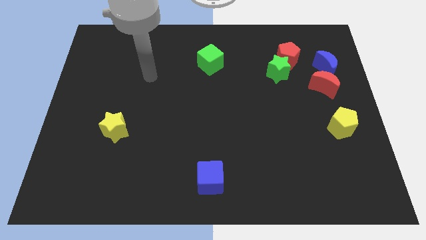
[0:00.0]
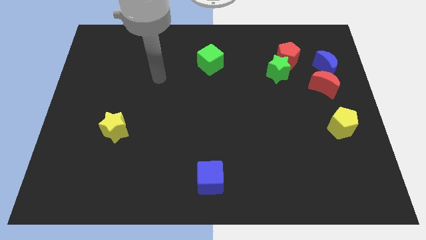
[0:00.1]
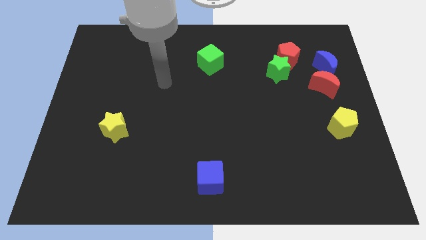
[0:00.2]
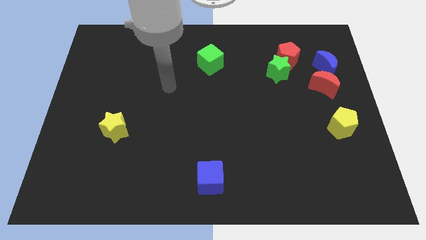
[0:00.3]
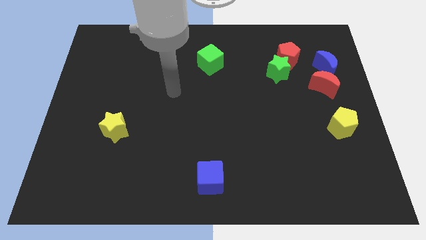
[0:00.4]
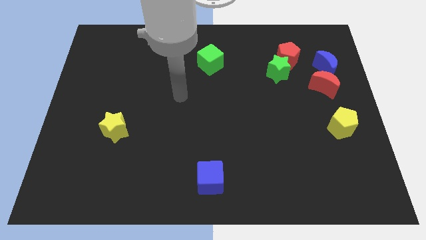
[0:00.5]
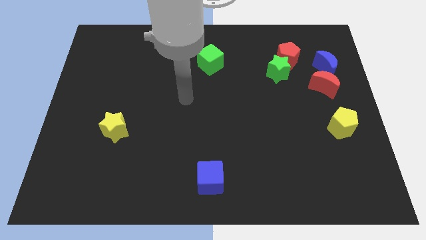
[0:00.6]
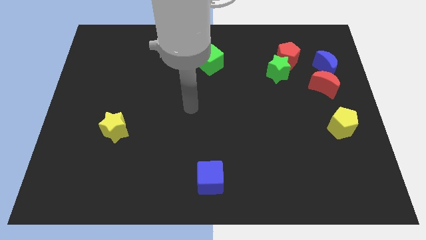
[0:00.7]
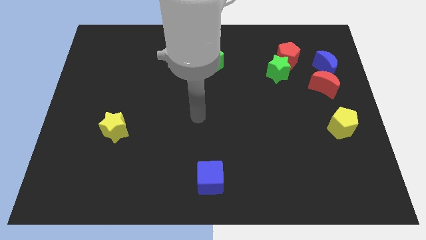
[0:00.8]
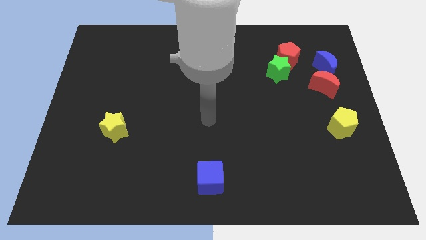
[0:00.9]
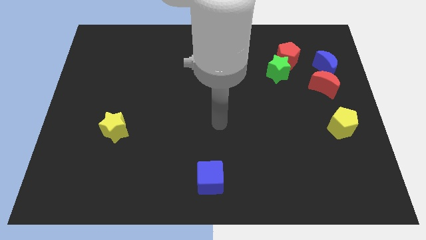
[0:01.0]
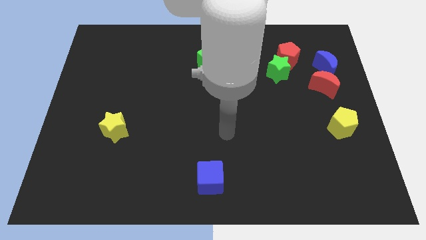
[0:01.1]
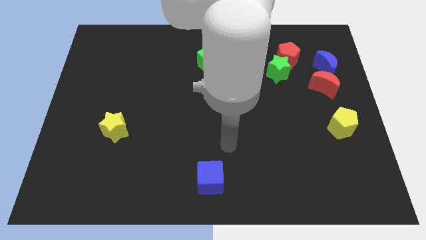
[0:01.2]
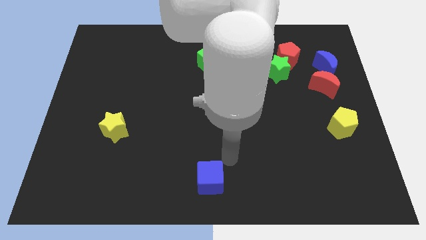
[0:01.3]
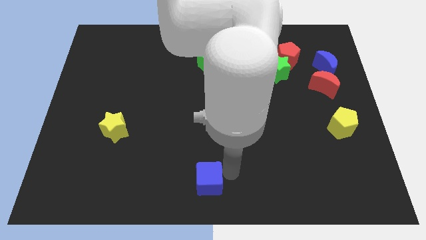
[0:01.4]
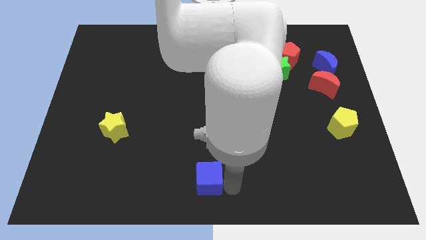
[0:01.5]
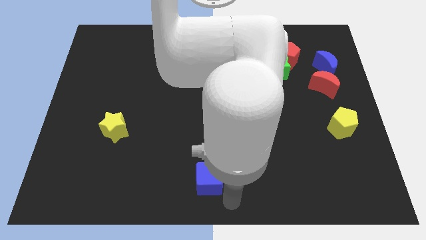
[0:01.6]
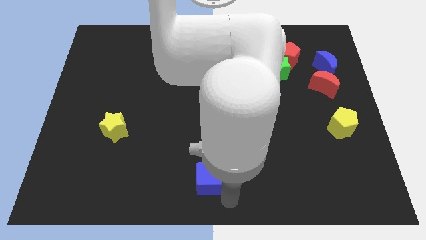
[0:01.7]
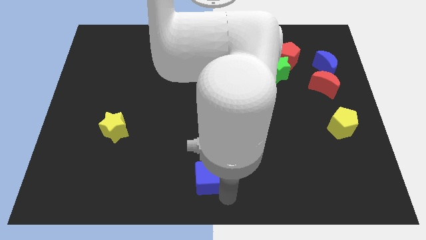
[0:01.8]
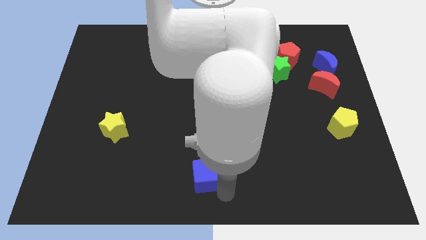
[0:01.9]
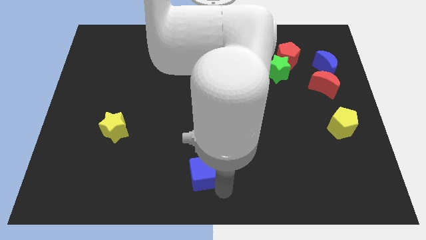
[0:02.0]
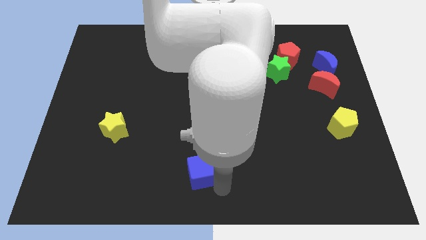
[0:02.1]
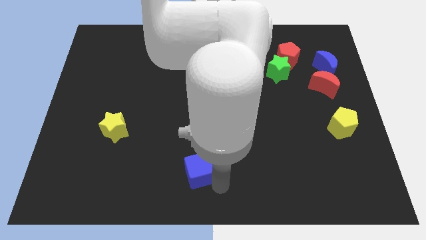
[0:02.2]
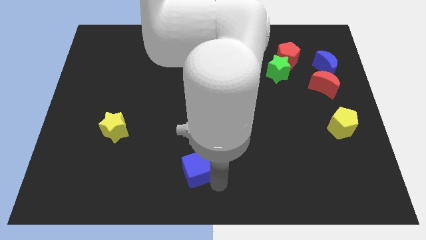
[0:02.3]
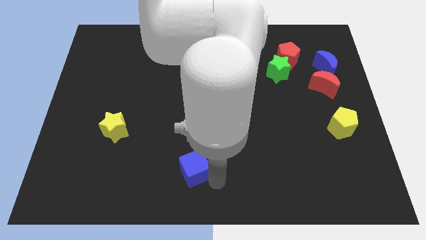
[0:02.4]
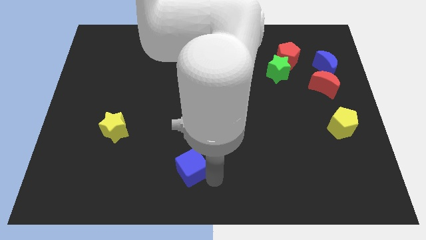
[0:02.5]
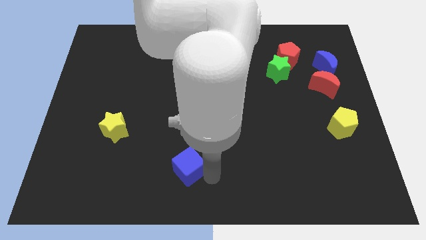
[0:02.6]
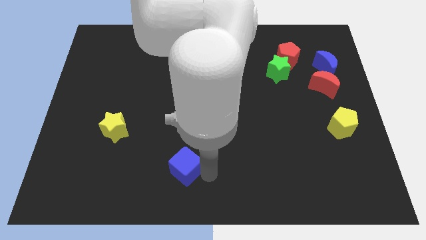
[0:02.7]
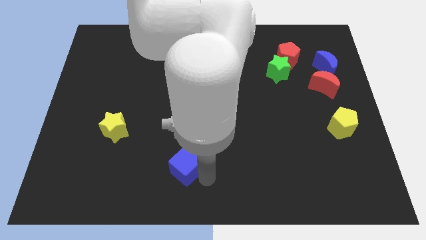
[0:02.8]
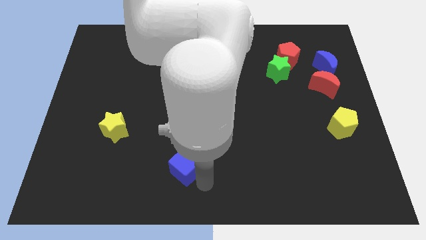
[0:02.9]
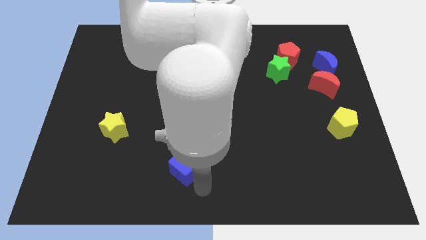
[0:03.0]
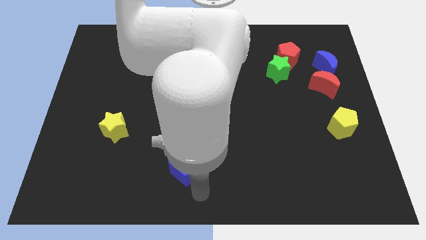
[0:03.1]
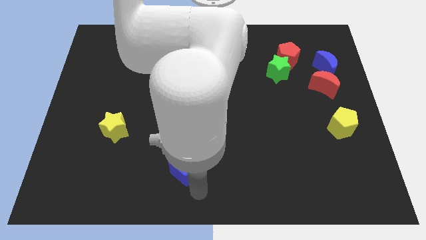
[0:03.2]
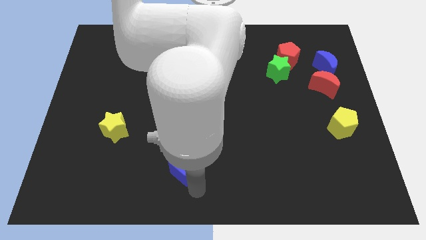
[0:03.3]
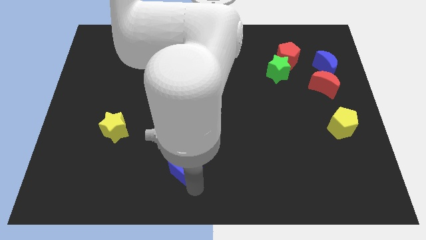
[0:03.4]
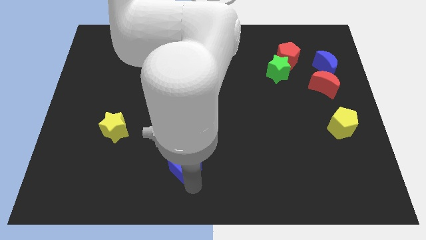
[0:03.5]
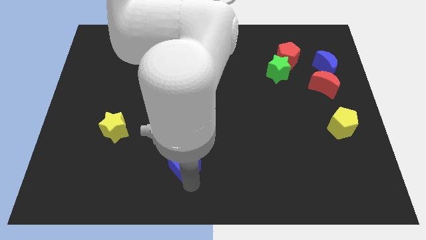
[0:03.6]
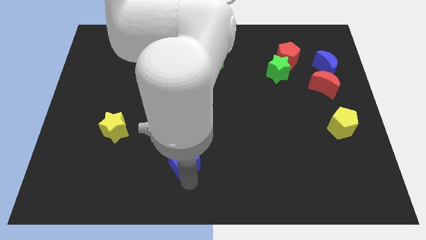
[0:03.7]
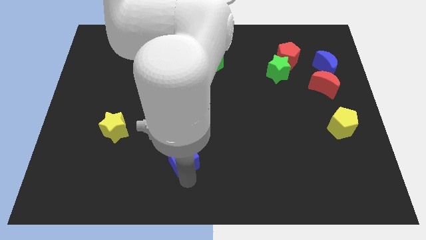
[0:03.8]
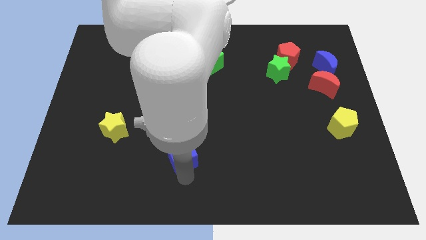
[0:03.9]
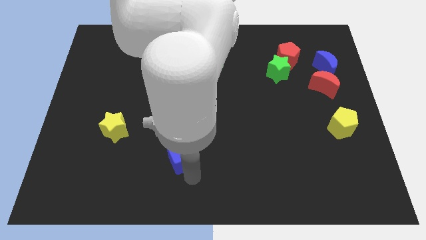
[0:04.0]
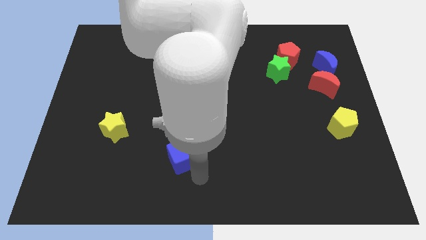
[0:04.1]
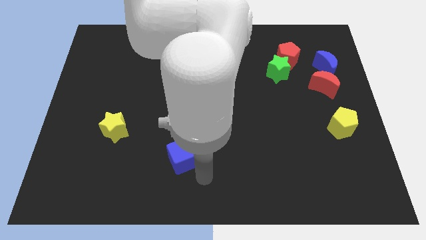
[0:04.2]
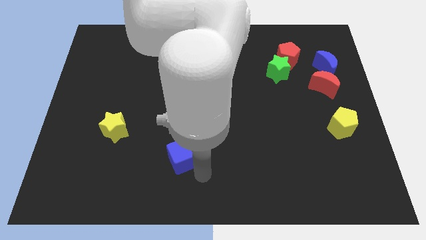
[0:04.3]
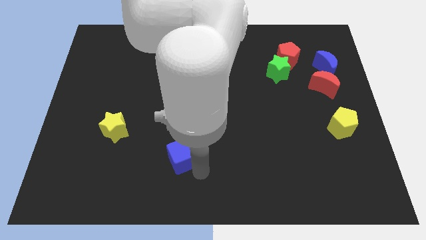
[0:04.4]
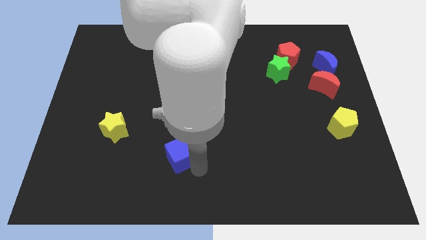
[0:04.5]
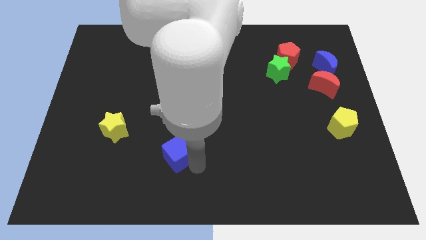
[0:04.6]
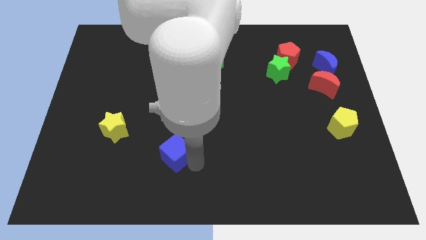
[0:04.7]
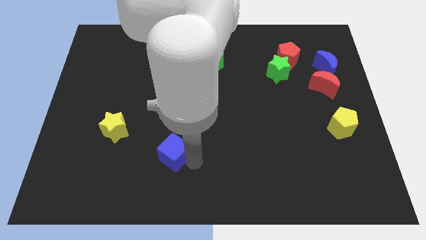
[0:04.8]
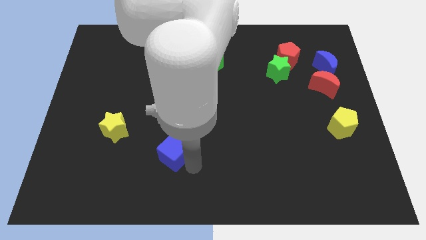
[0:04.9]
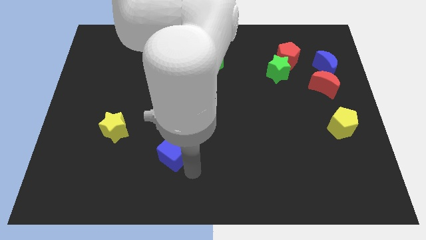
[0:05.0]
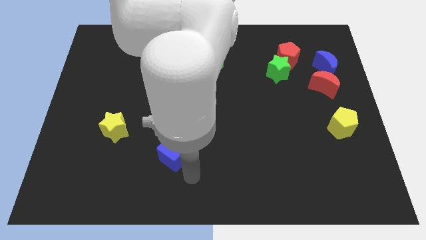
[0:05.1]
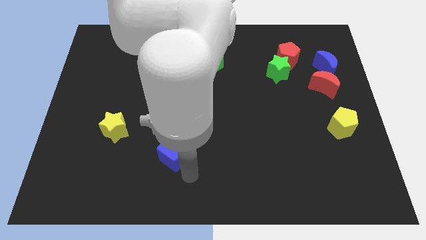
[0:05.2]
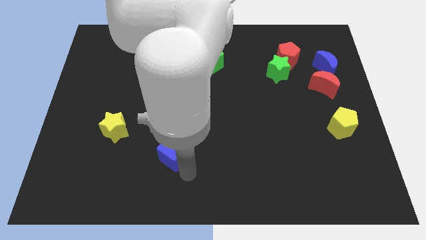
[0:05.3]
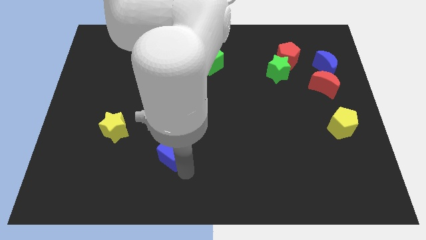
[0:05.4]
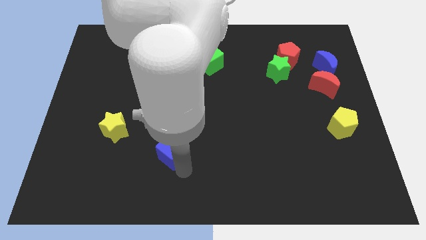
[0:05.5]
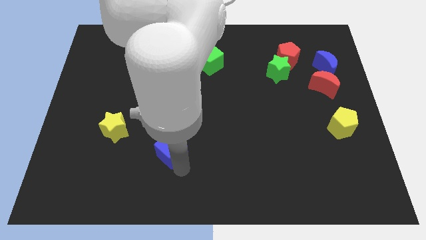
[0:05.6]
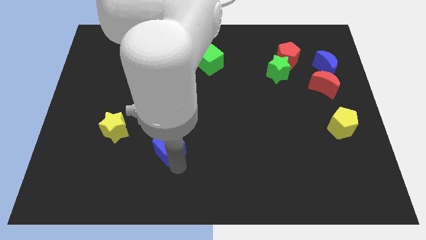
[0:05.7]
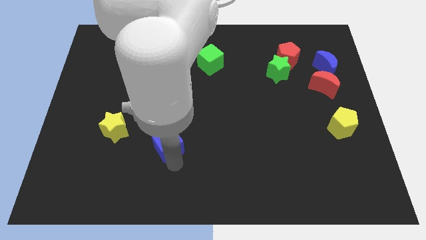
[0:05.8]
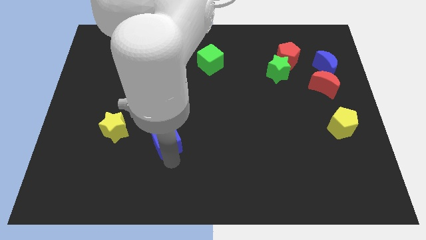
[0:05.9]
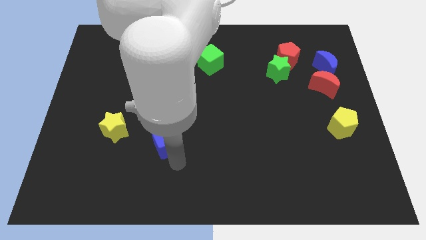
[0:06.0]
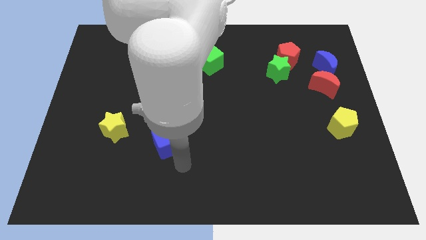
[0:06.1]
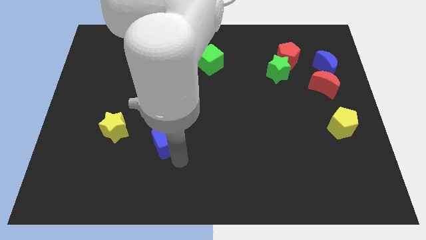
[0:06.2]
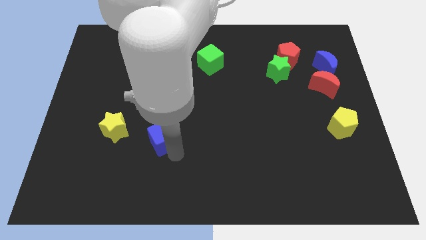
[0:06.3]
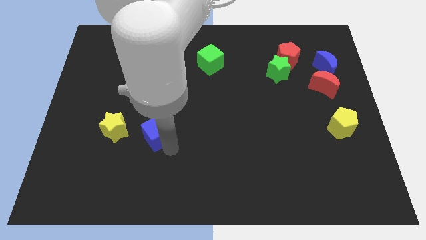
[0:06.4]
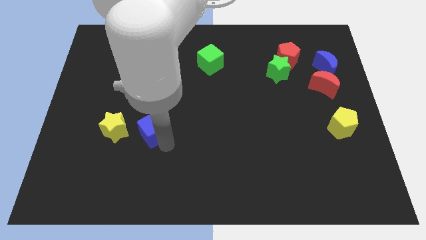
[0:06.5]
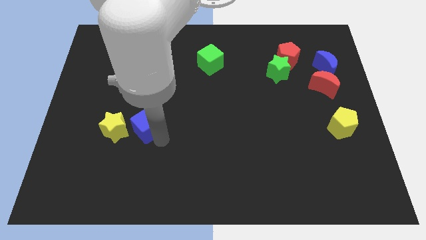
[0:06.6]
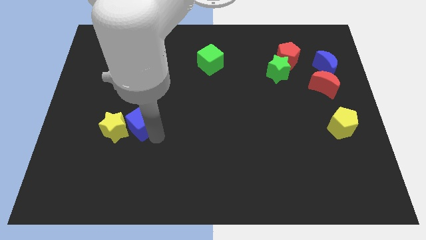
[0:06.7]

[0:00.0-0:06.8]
slide the blue cube up and left diagonally

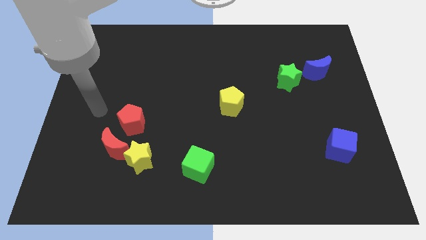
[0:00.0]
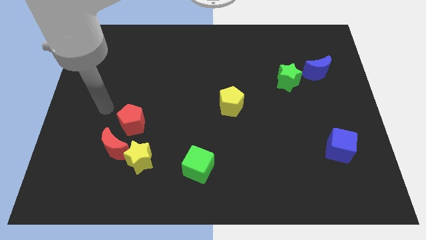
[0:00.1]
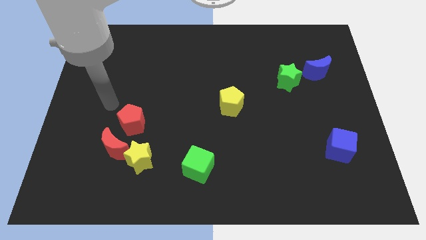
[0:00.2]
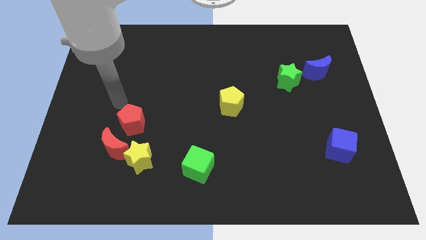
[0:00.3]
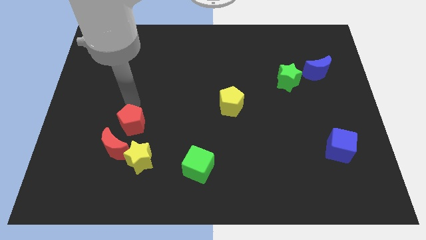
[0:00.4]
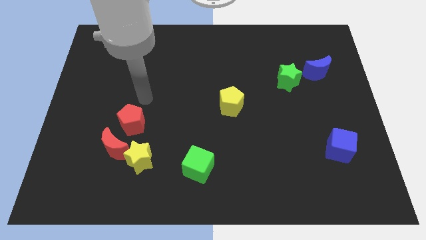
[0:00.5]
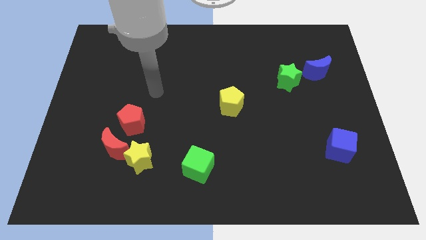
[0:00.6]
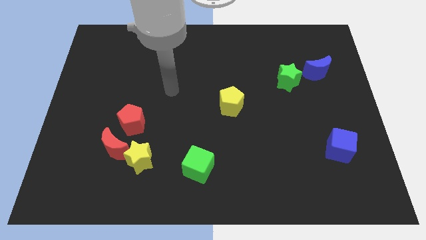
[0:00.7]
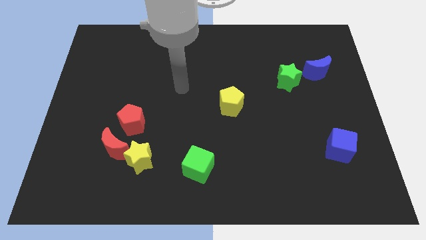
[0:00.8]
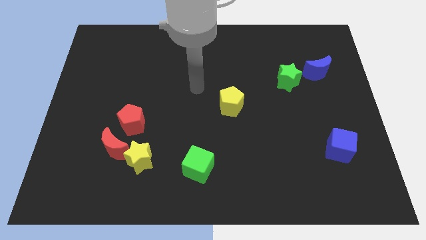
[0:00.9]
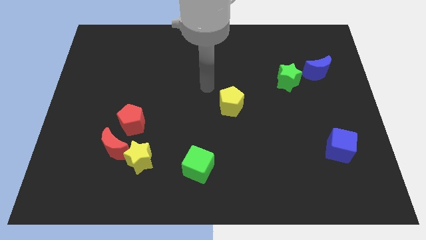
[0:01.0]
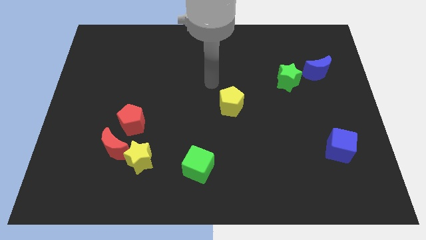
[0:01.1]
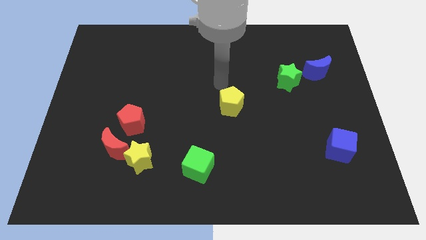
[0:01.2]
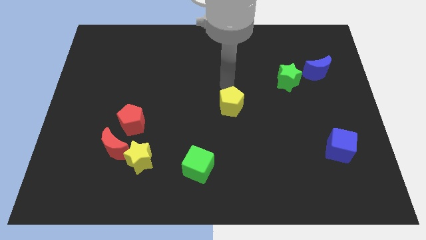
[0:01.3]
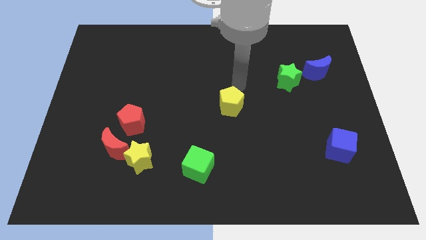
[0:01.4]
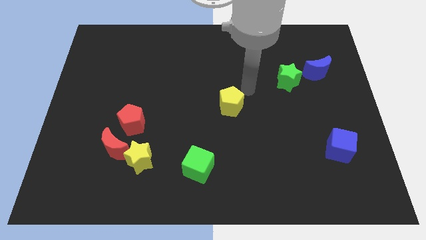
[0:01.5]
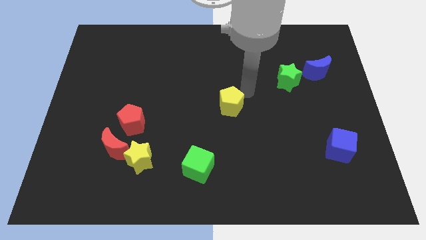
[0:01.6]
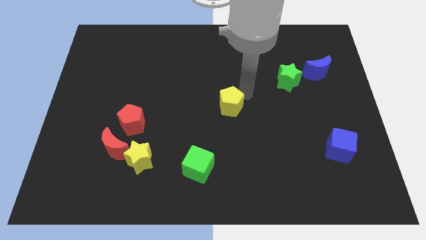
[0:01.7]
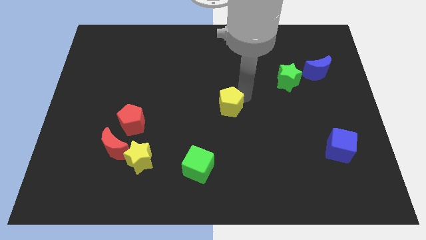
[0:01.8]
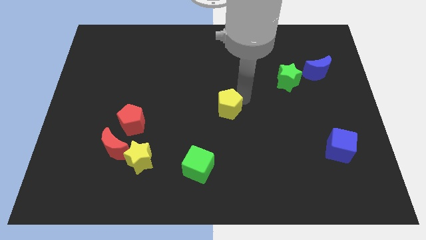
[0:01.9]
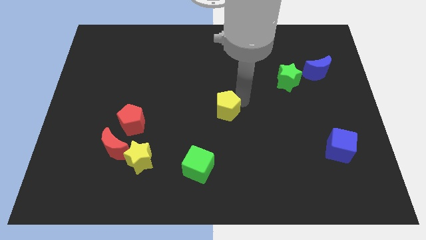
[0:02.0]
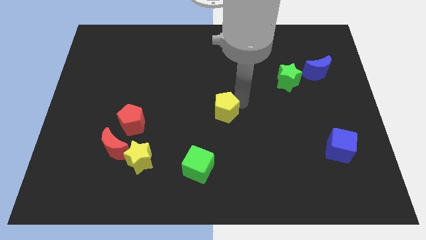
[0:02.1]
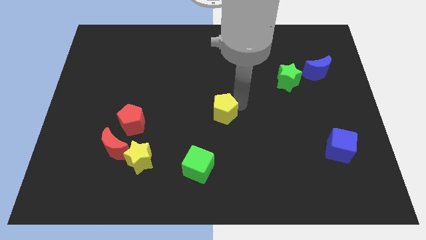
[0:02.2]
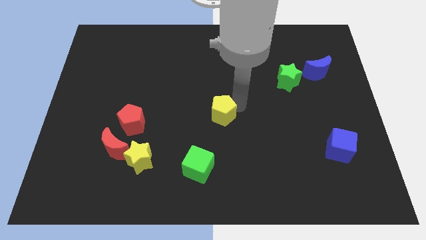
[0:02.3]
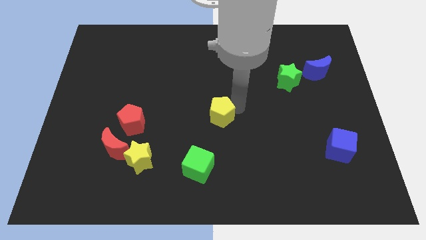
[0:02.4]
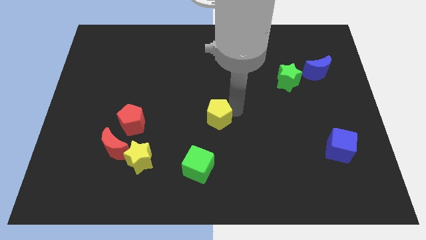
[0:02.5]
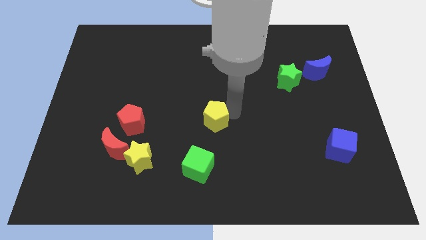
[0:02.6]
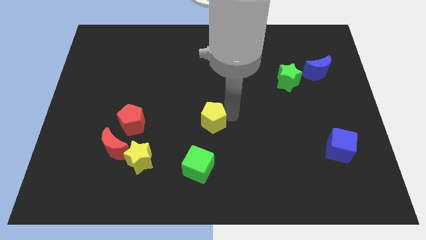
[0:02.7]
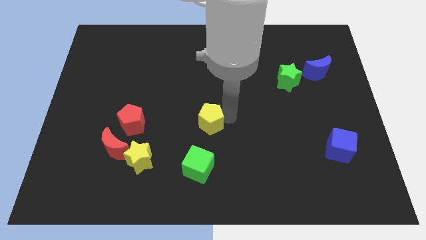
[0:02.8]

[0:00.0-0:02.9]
move the yellow pentagon somewhat downwards and left
